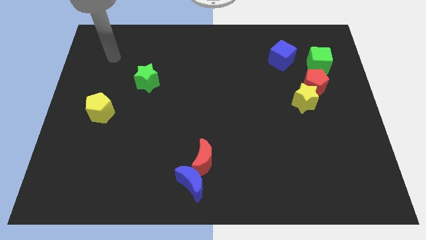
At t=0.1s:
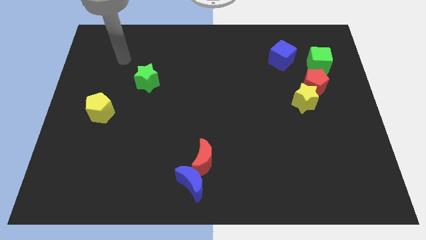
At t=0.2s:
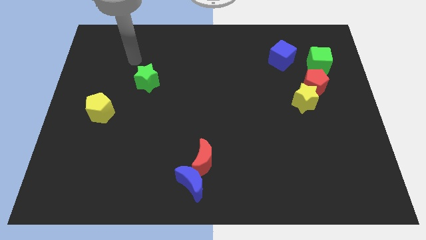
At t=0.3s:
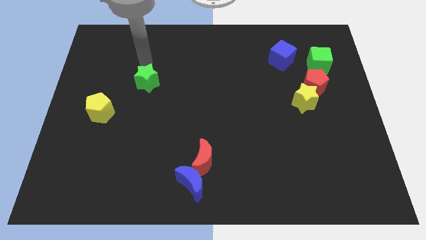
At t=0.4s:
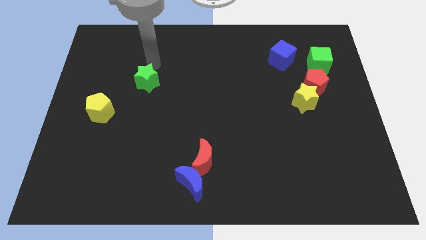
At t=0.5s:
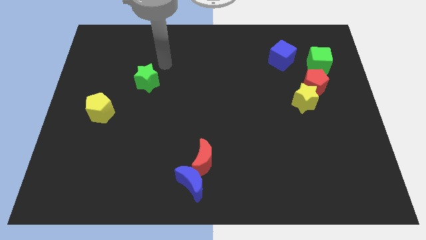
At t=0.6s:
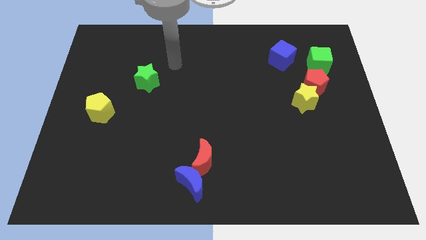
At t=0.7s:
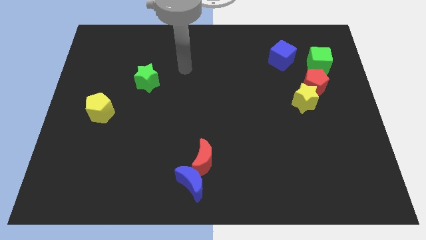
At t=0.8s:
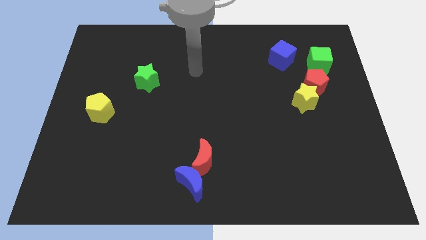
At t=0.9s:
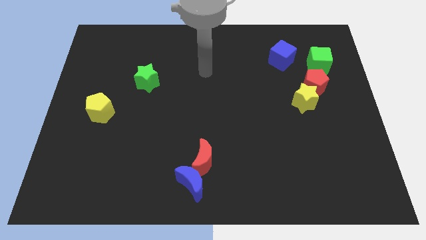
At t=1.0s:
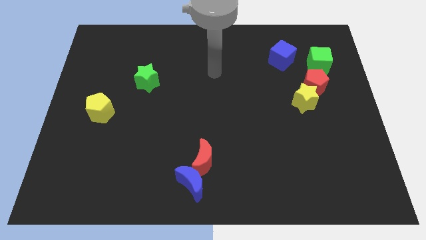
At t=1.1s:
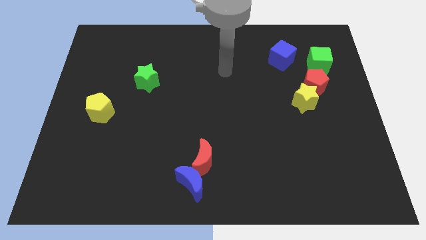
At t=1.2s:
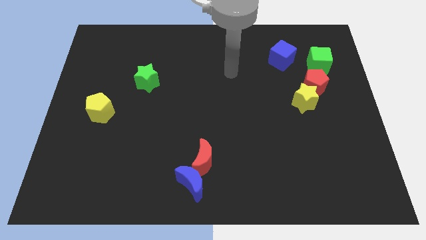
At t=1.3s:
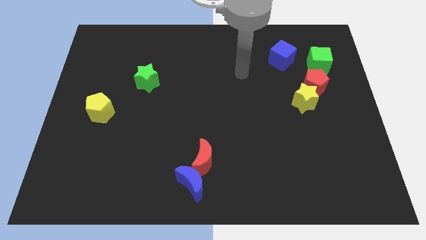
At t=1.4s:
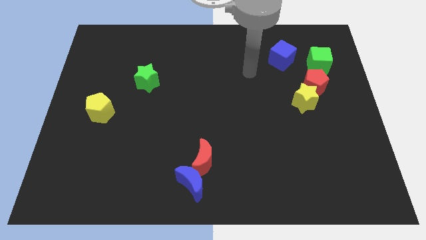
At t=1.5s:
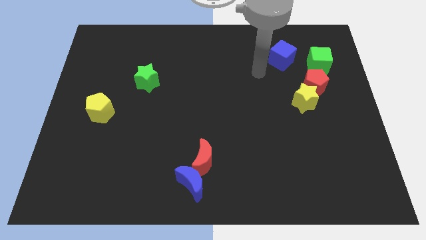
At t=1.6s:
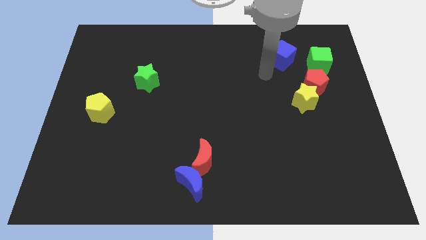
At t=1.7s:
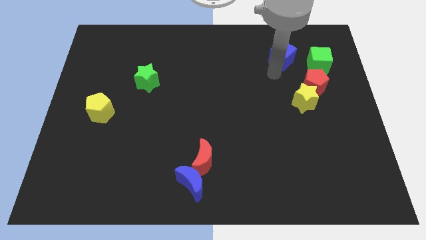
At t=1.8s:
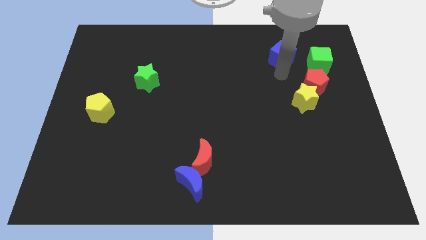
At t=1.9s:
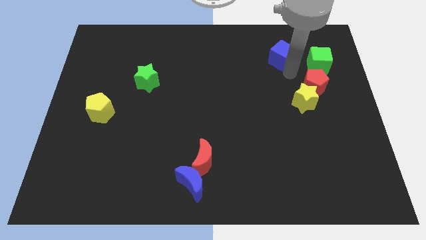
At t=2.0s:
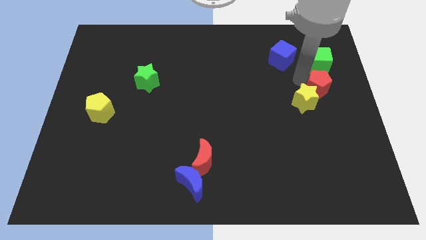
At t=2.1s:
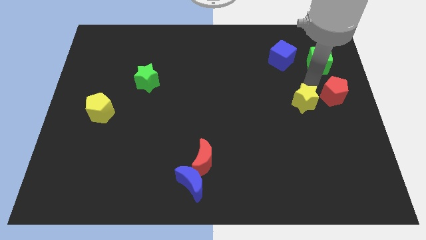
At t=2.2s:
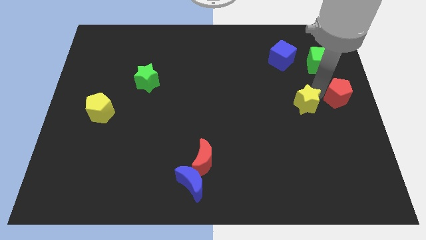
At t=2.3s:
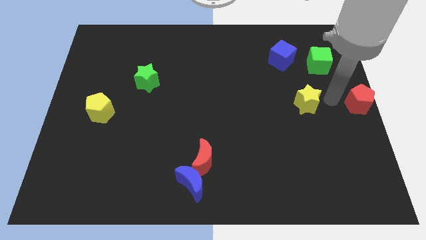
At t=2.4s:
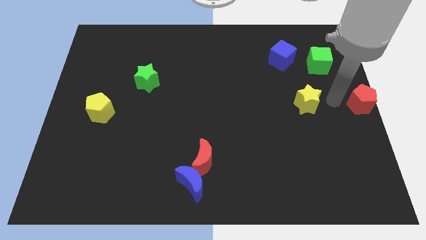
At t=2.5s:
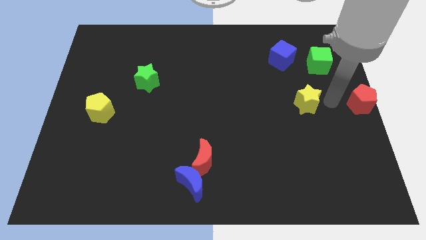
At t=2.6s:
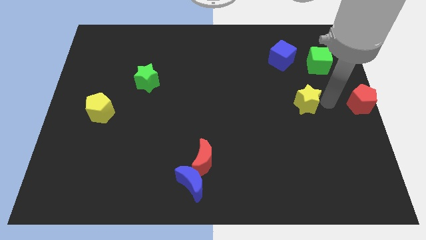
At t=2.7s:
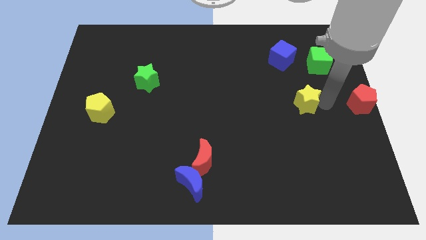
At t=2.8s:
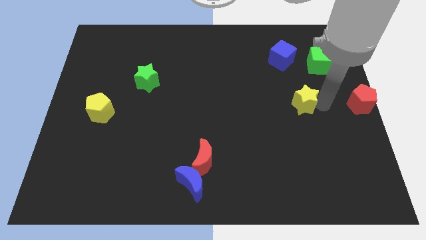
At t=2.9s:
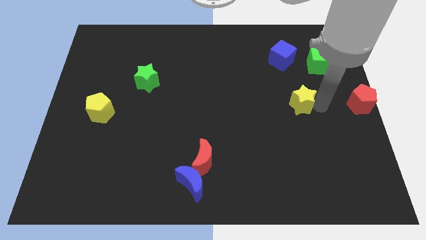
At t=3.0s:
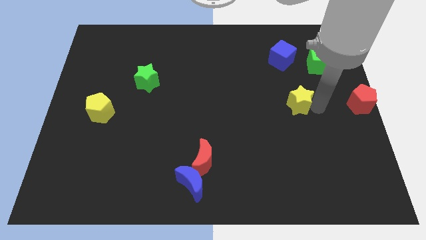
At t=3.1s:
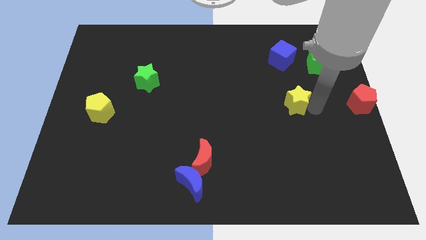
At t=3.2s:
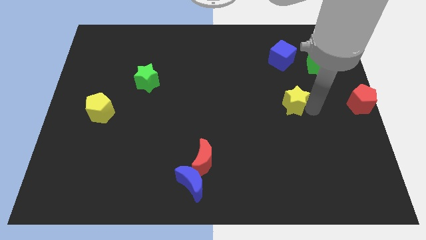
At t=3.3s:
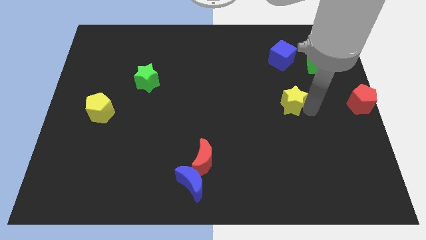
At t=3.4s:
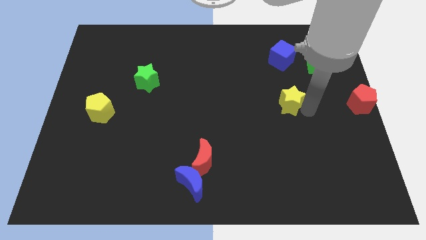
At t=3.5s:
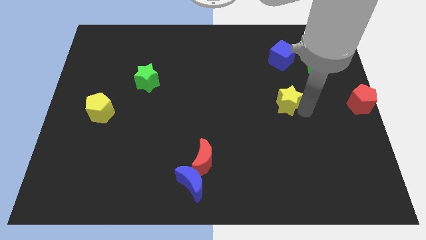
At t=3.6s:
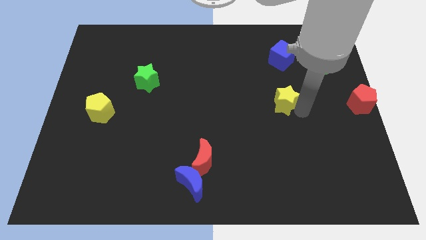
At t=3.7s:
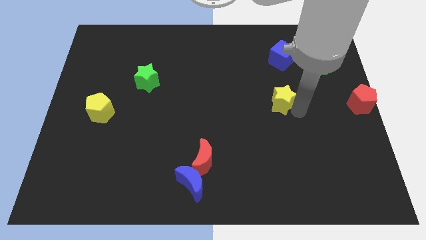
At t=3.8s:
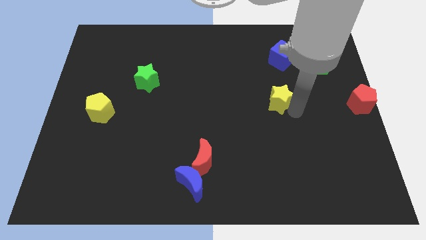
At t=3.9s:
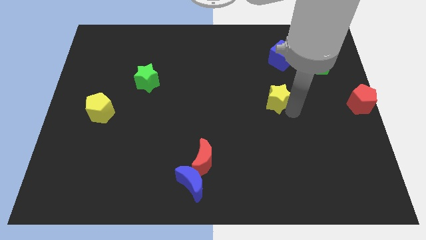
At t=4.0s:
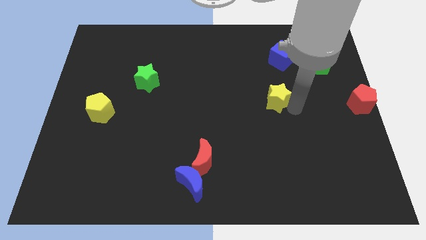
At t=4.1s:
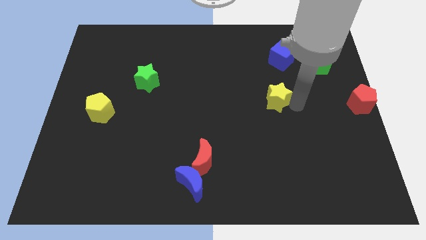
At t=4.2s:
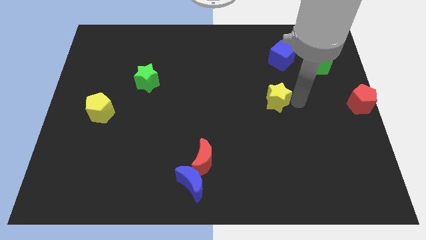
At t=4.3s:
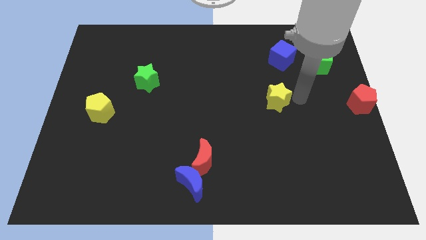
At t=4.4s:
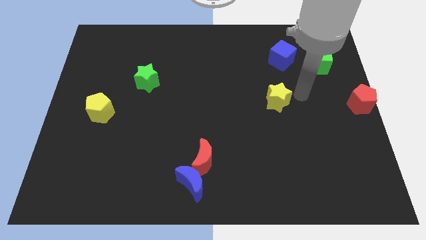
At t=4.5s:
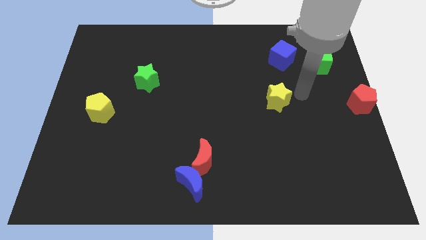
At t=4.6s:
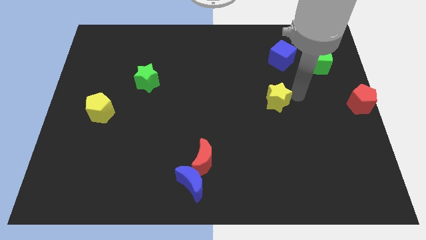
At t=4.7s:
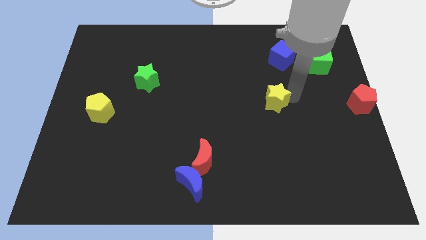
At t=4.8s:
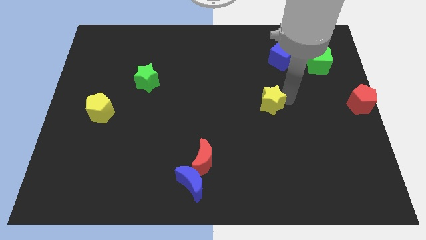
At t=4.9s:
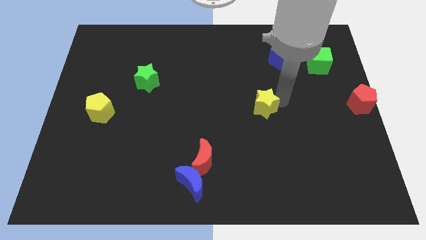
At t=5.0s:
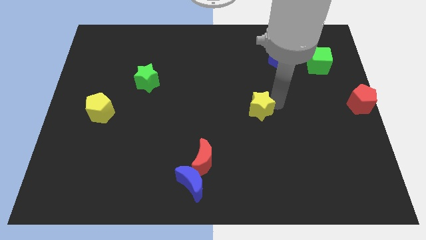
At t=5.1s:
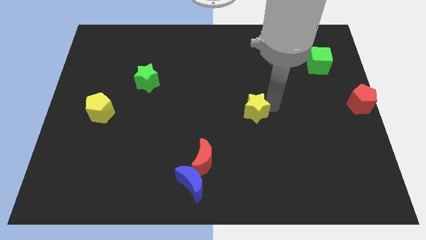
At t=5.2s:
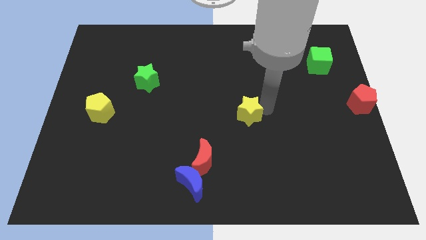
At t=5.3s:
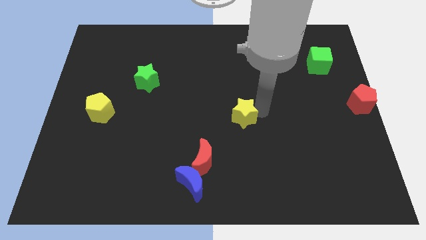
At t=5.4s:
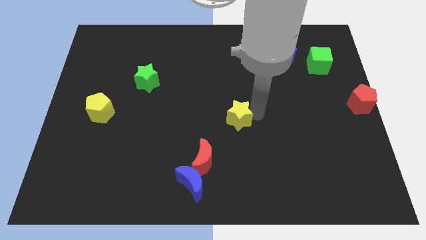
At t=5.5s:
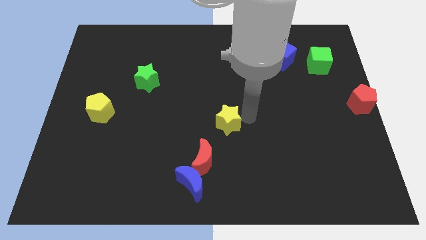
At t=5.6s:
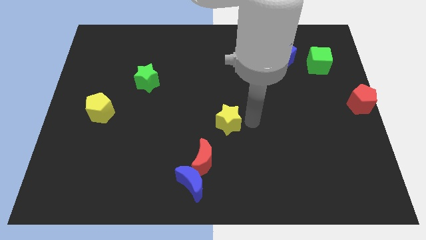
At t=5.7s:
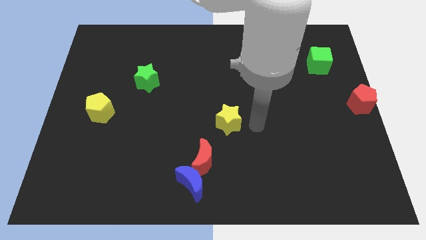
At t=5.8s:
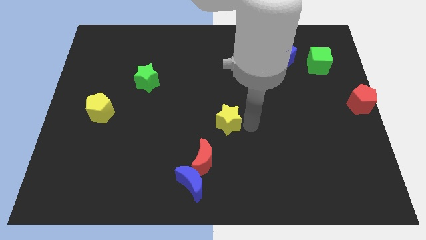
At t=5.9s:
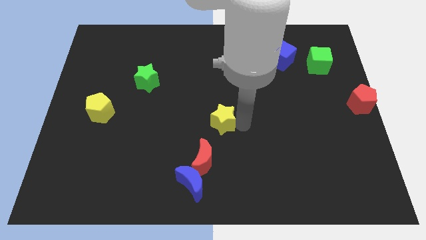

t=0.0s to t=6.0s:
push the yellow star above the red moon

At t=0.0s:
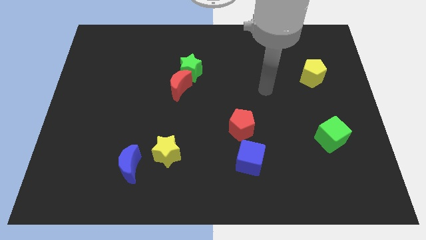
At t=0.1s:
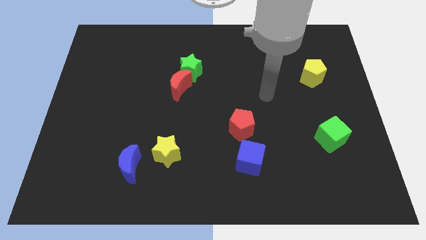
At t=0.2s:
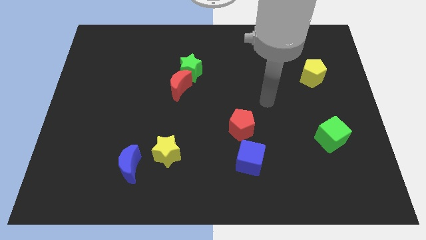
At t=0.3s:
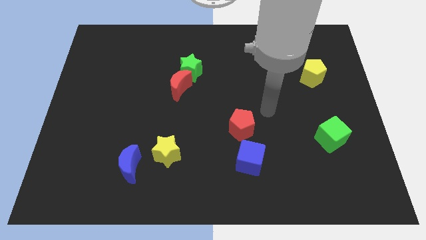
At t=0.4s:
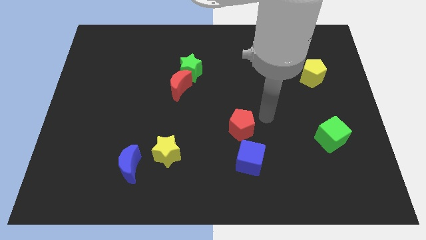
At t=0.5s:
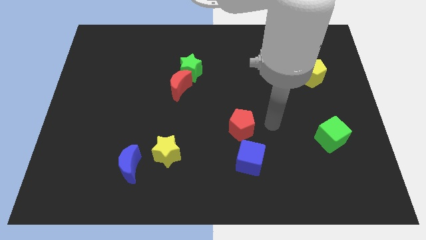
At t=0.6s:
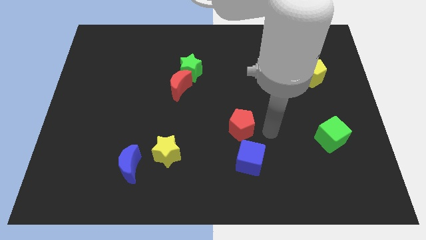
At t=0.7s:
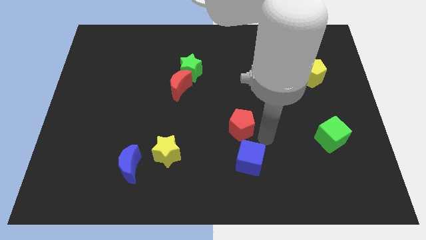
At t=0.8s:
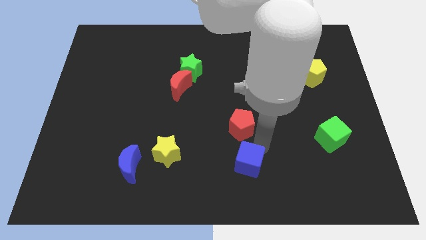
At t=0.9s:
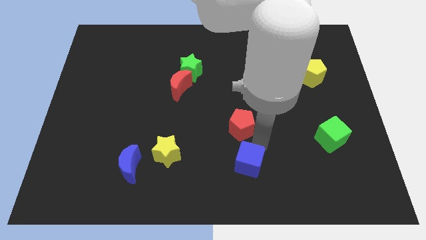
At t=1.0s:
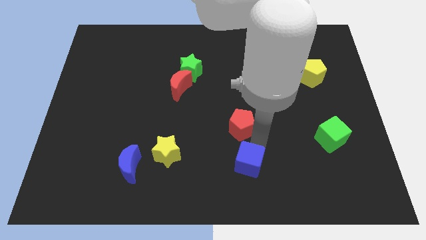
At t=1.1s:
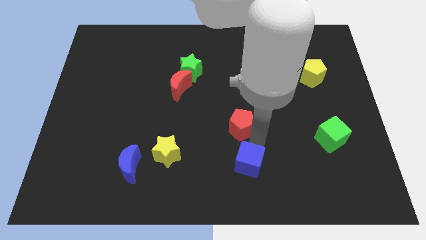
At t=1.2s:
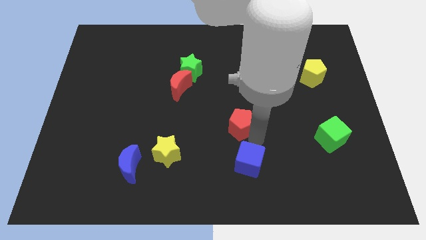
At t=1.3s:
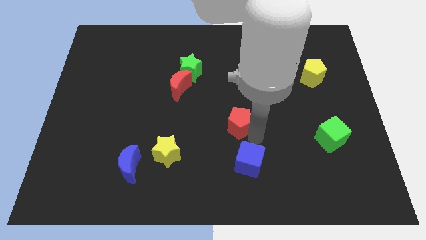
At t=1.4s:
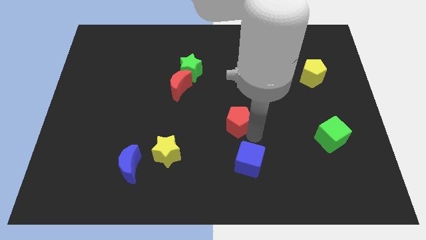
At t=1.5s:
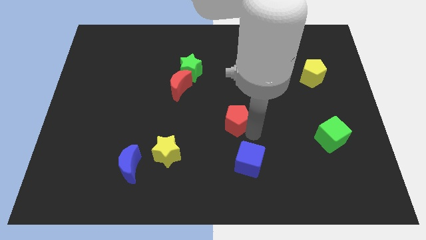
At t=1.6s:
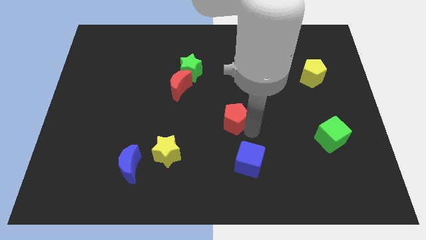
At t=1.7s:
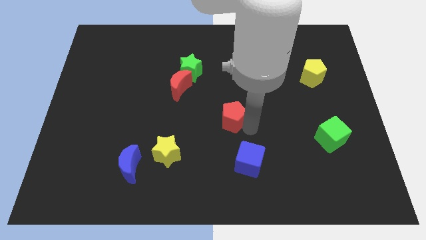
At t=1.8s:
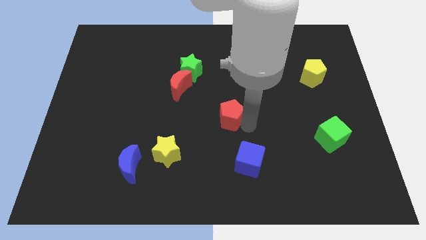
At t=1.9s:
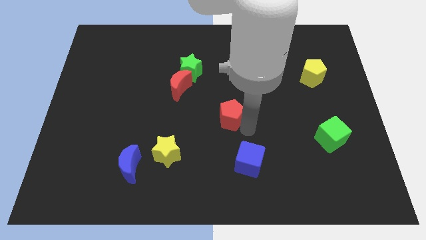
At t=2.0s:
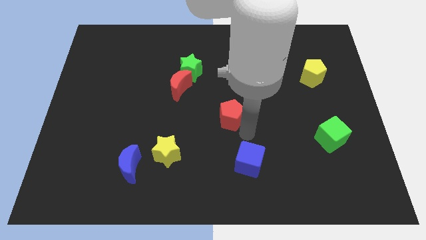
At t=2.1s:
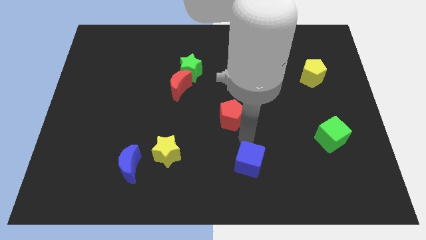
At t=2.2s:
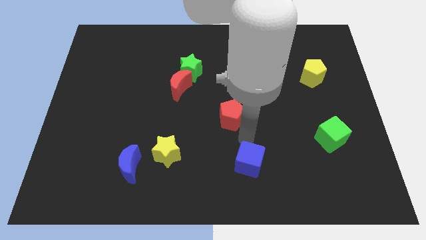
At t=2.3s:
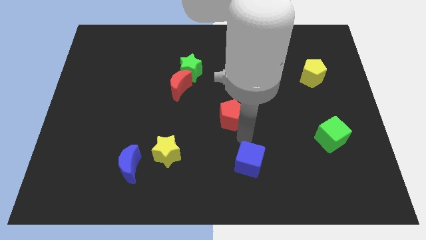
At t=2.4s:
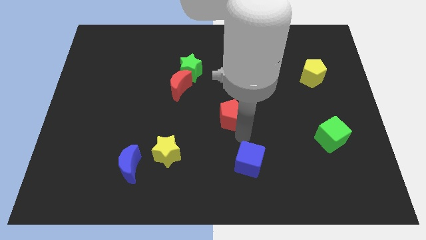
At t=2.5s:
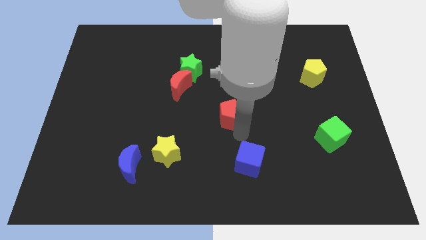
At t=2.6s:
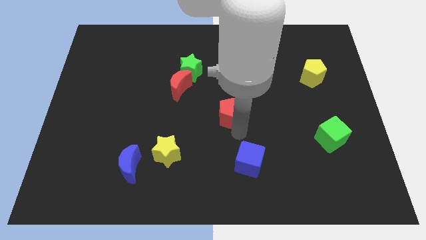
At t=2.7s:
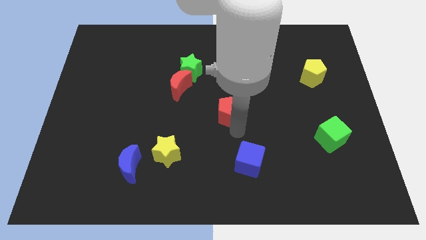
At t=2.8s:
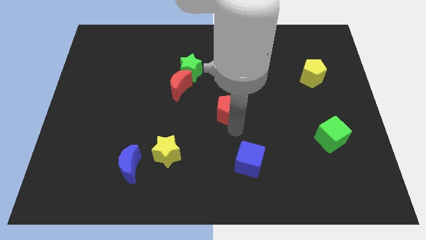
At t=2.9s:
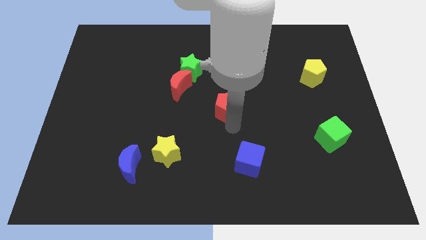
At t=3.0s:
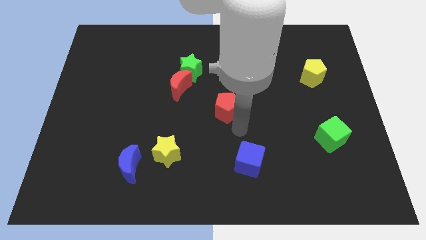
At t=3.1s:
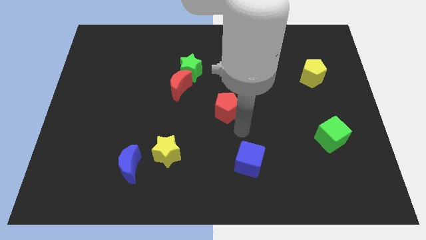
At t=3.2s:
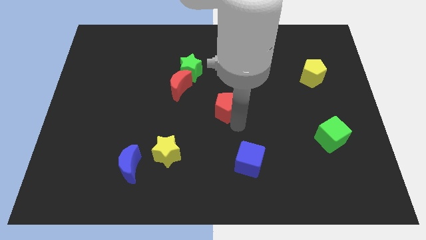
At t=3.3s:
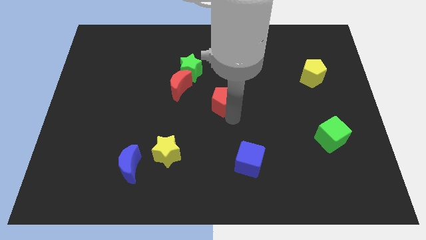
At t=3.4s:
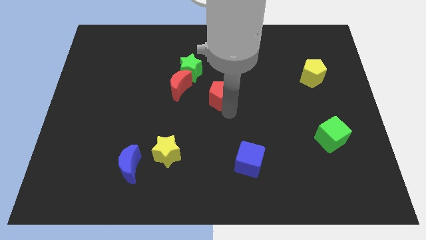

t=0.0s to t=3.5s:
push the red pentagon to the bottom right of the green star
